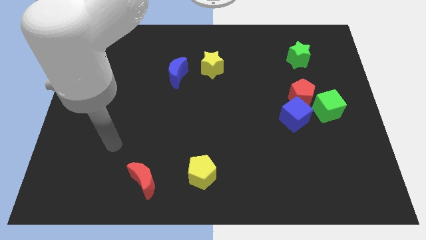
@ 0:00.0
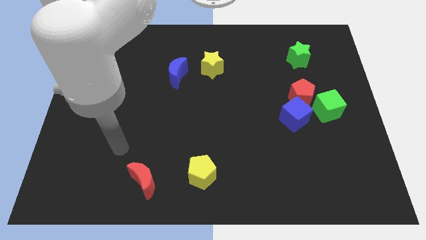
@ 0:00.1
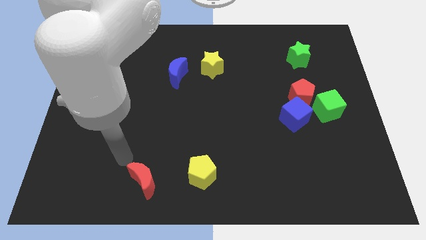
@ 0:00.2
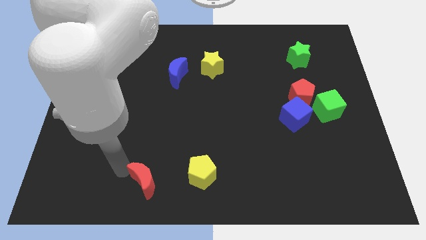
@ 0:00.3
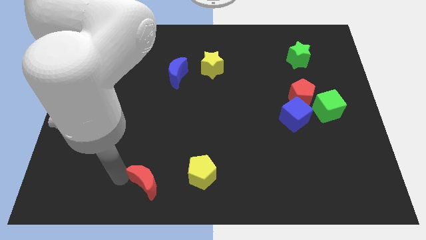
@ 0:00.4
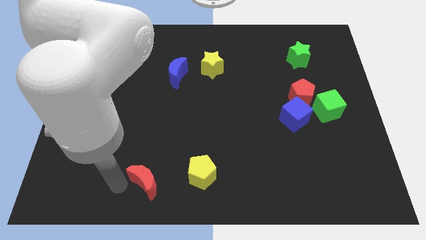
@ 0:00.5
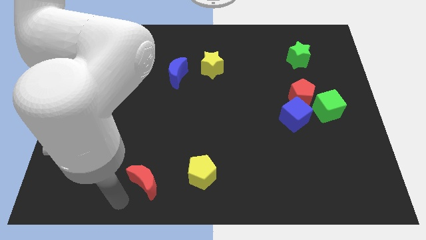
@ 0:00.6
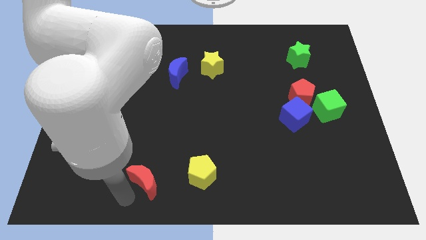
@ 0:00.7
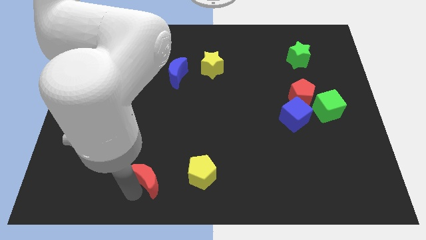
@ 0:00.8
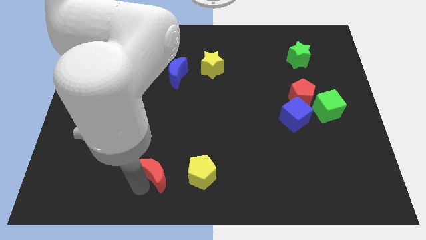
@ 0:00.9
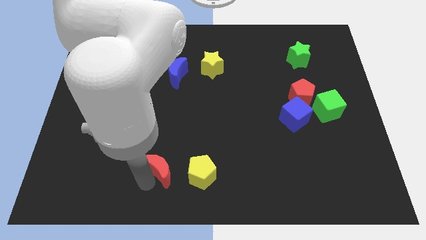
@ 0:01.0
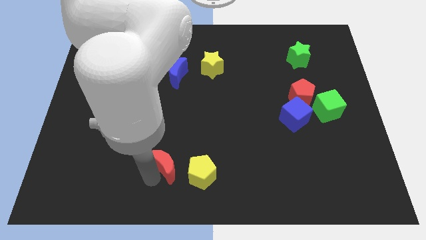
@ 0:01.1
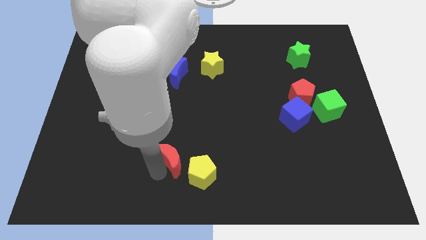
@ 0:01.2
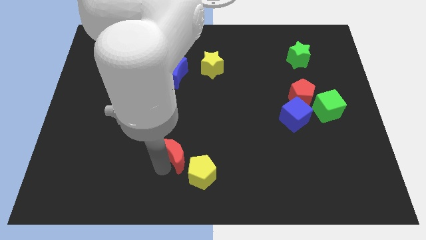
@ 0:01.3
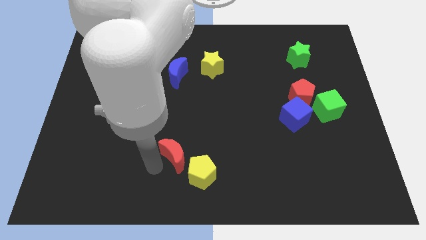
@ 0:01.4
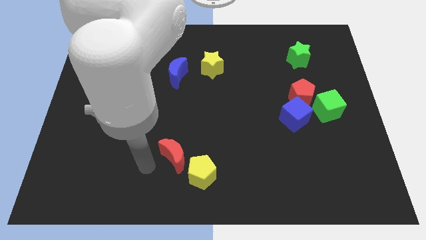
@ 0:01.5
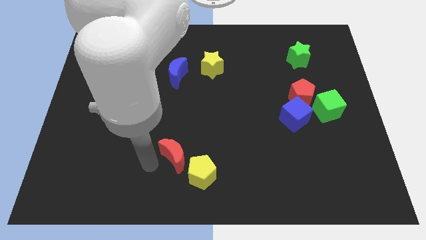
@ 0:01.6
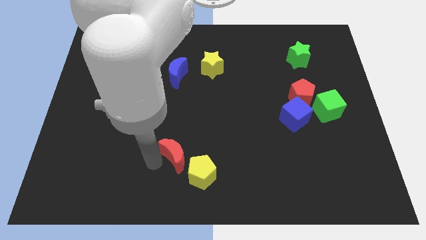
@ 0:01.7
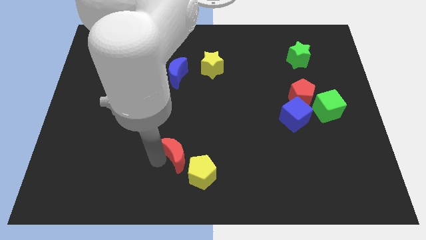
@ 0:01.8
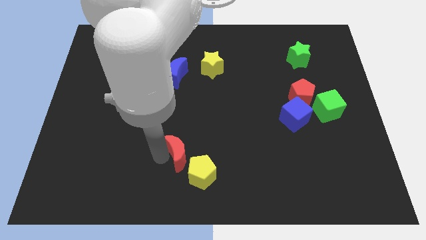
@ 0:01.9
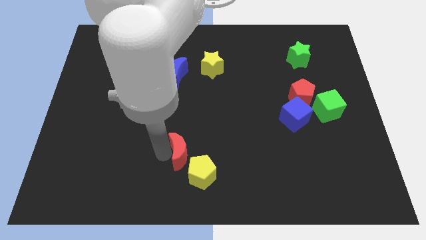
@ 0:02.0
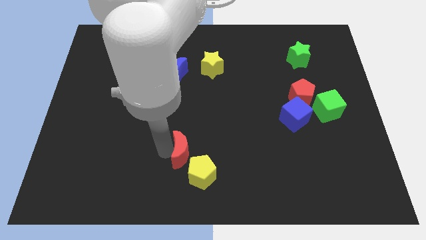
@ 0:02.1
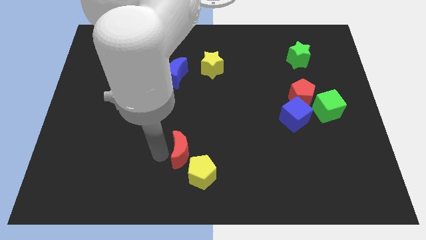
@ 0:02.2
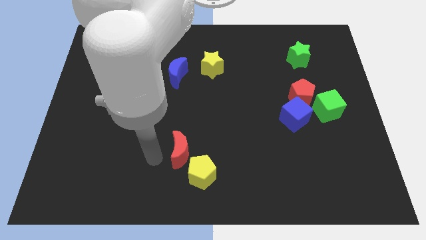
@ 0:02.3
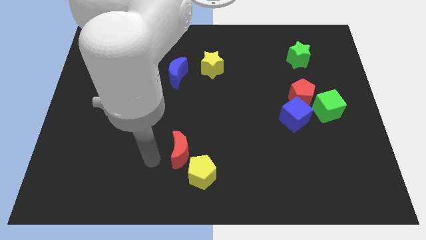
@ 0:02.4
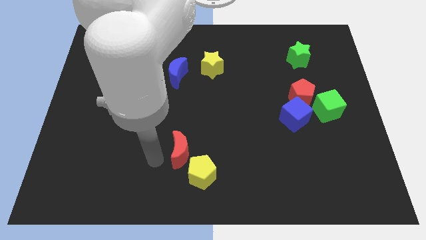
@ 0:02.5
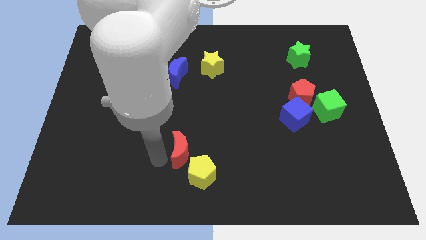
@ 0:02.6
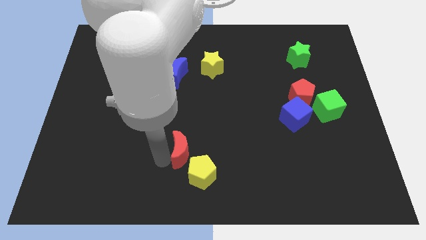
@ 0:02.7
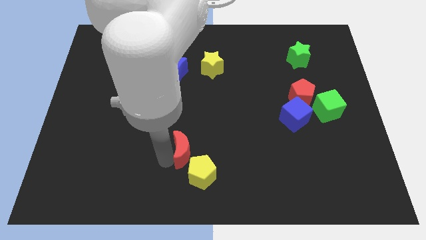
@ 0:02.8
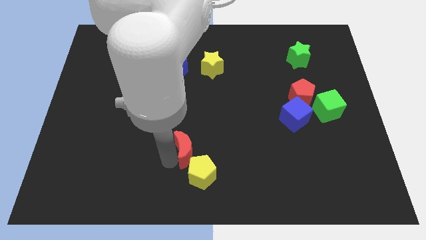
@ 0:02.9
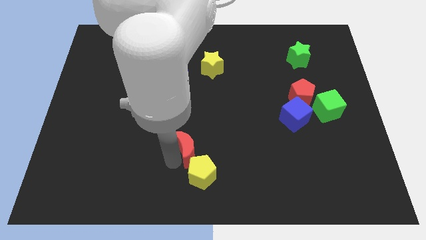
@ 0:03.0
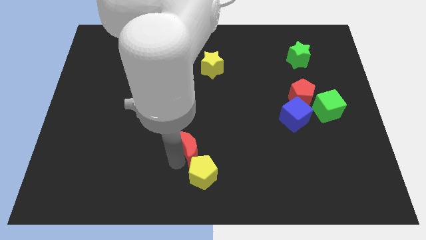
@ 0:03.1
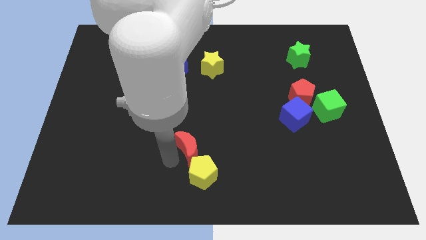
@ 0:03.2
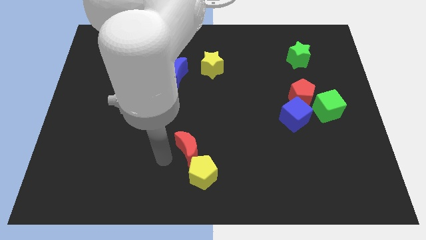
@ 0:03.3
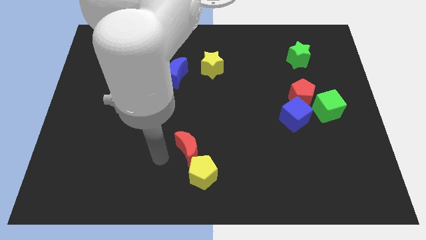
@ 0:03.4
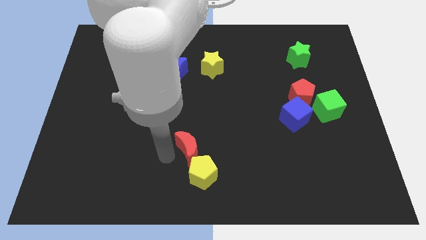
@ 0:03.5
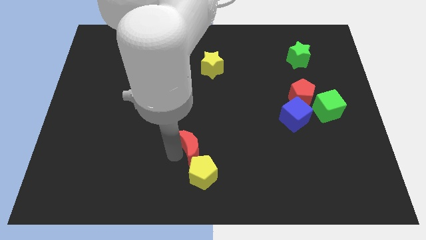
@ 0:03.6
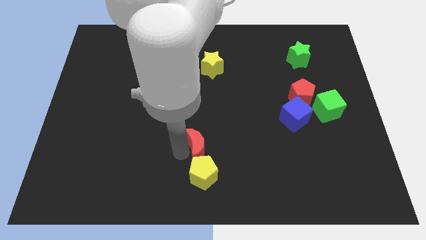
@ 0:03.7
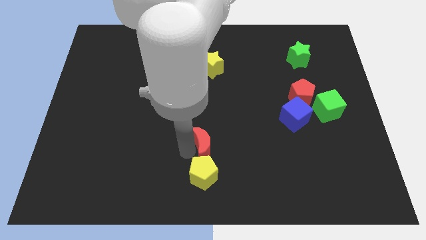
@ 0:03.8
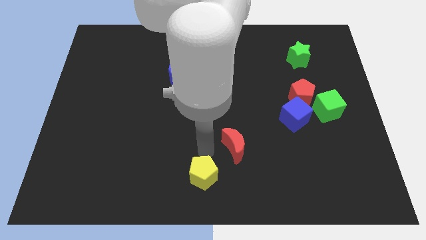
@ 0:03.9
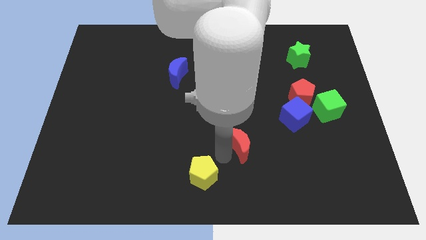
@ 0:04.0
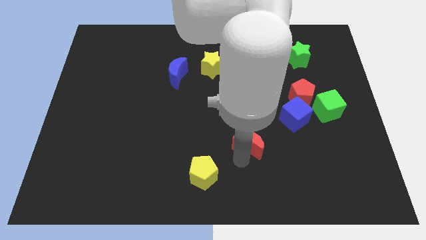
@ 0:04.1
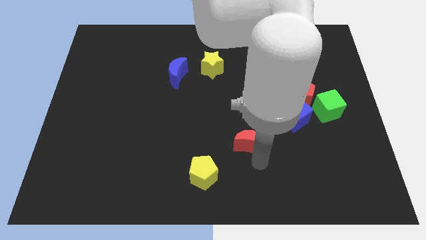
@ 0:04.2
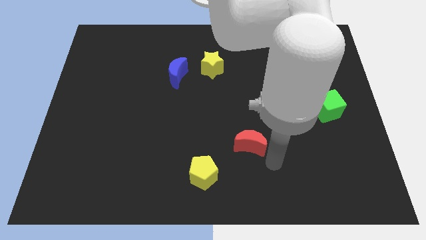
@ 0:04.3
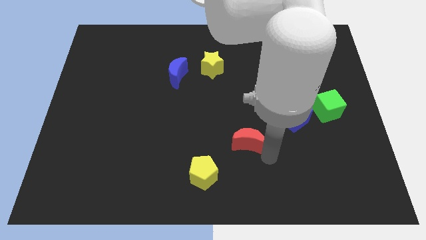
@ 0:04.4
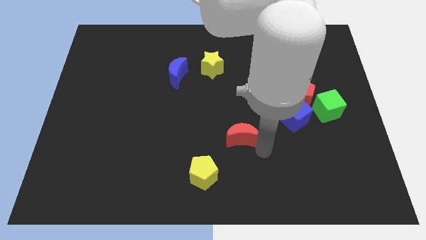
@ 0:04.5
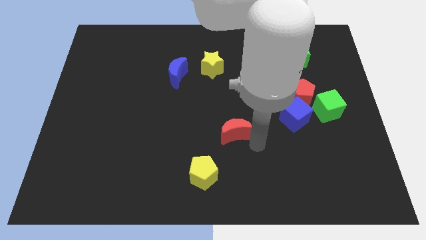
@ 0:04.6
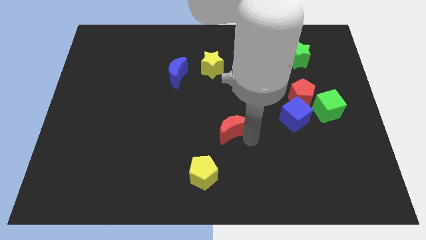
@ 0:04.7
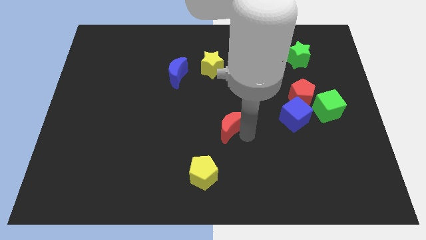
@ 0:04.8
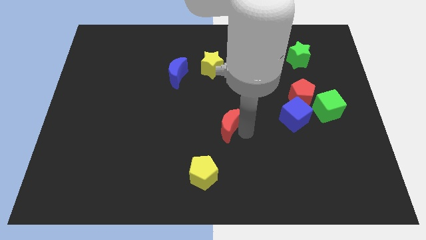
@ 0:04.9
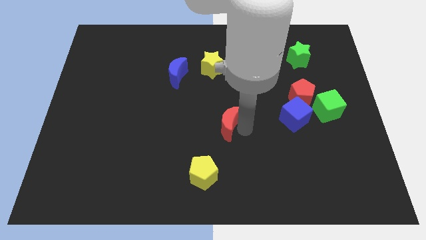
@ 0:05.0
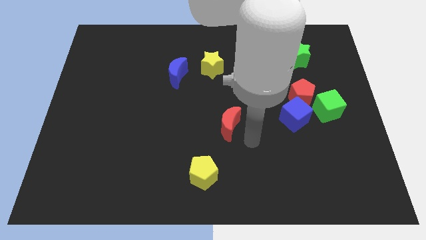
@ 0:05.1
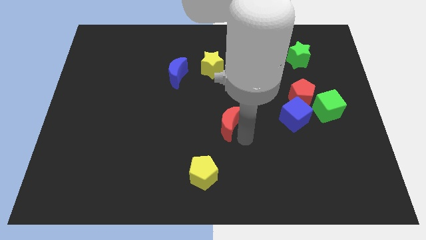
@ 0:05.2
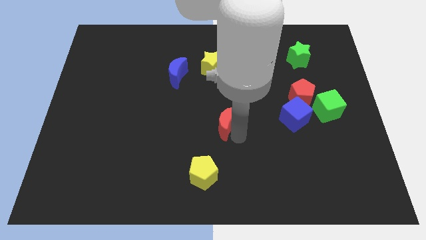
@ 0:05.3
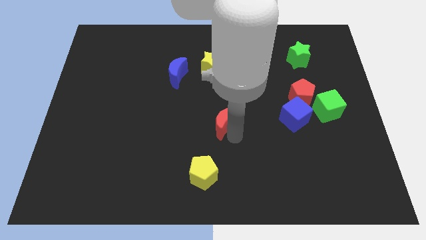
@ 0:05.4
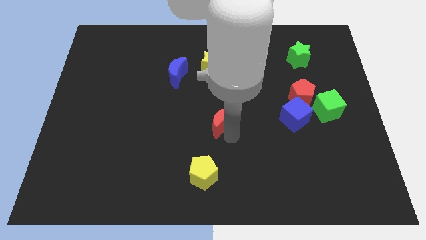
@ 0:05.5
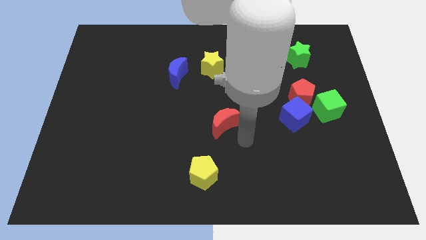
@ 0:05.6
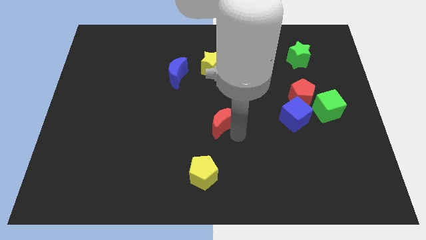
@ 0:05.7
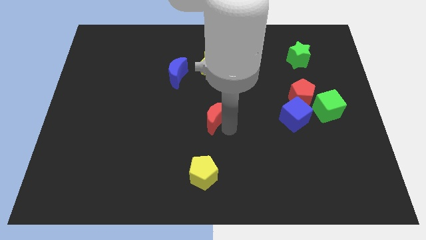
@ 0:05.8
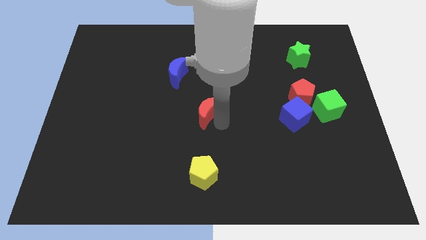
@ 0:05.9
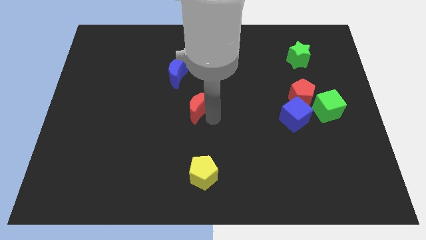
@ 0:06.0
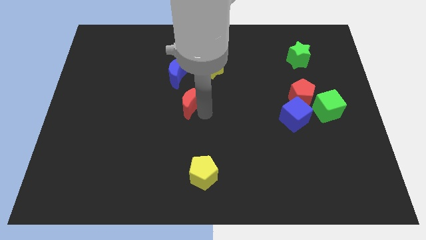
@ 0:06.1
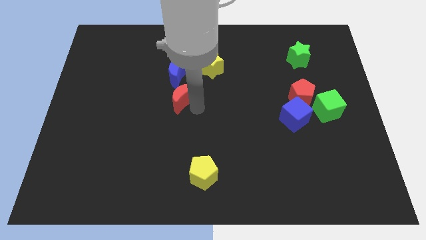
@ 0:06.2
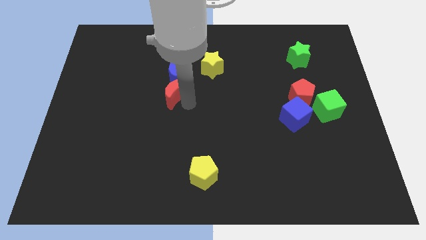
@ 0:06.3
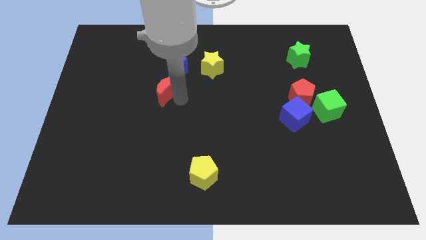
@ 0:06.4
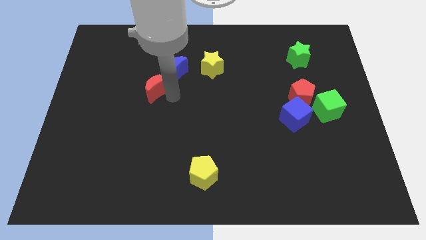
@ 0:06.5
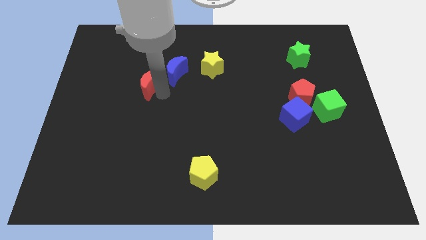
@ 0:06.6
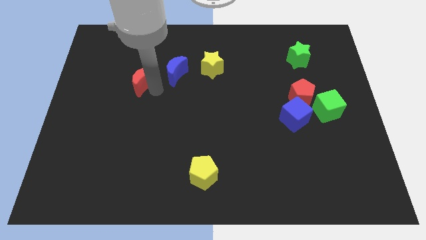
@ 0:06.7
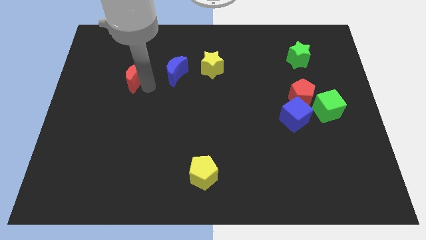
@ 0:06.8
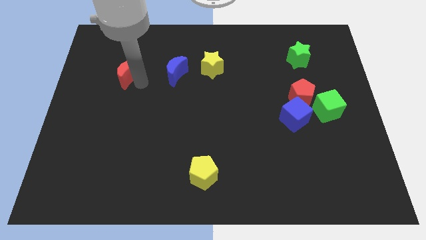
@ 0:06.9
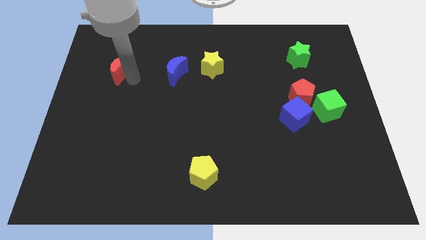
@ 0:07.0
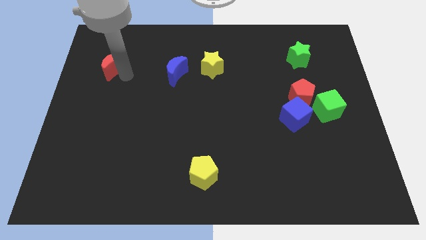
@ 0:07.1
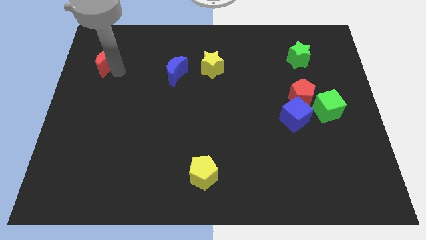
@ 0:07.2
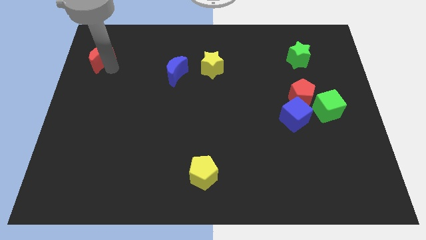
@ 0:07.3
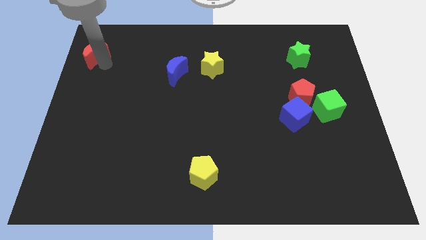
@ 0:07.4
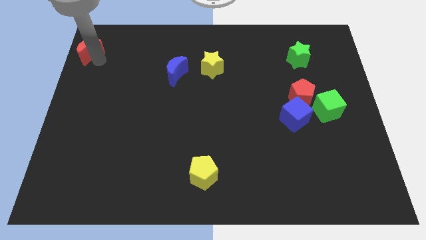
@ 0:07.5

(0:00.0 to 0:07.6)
put the red moon to the upper left corner
